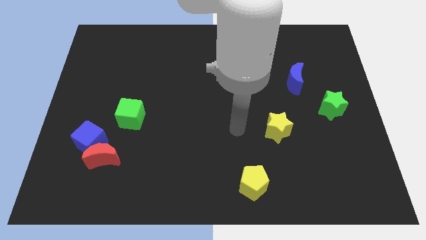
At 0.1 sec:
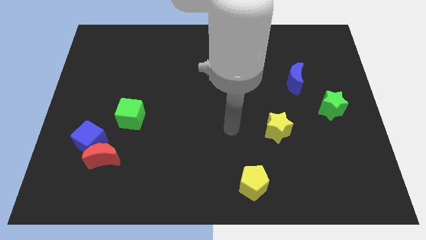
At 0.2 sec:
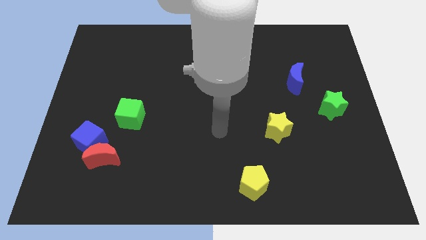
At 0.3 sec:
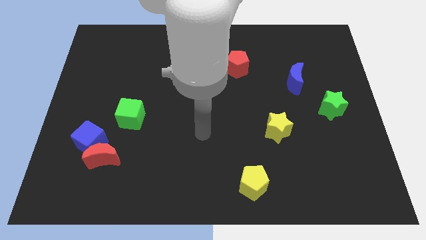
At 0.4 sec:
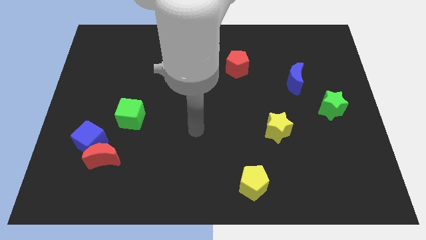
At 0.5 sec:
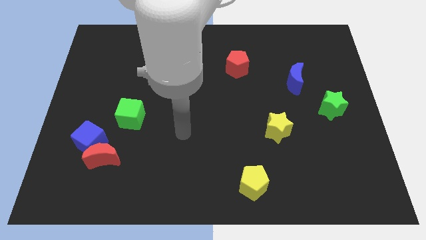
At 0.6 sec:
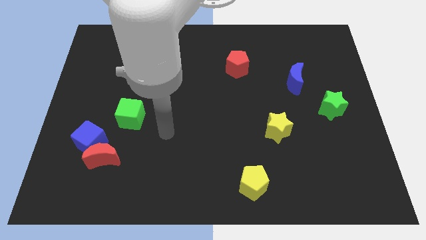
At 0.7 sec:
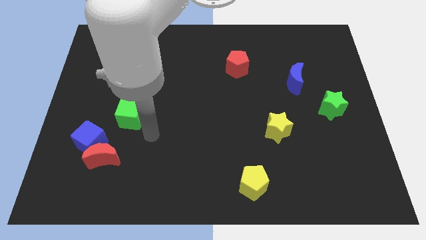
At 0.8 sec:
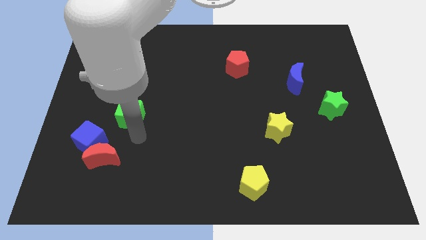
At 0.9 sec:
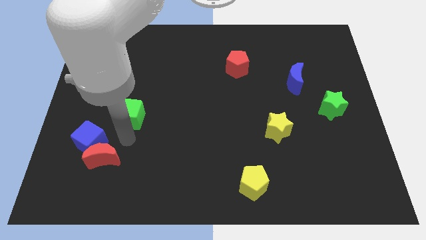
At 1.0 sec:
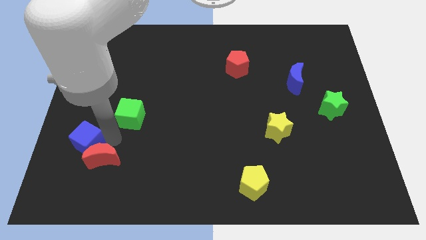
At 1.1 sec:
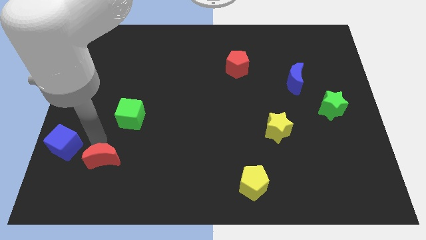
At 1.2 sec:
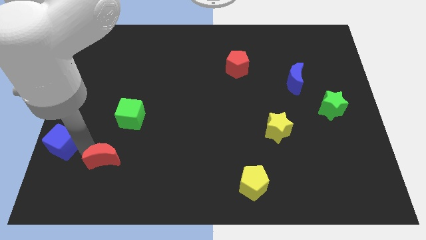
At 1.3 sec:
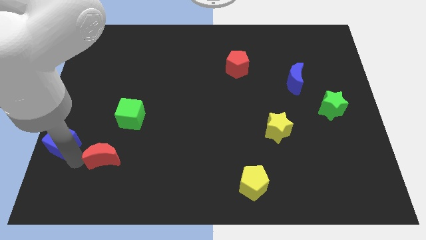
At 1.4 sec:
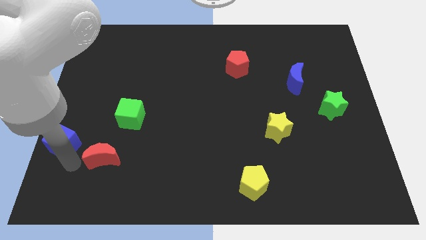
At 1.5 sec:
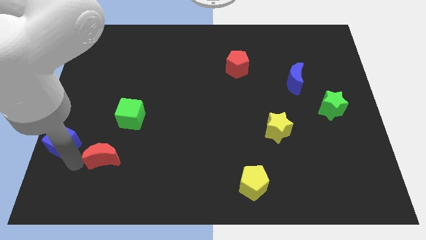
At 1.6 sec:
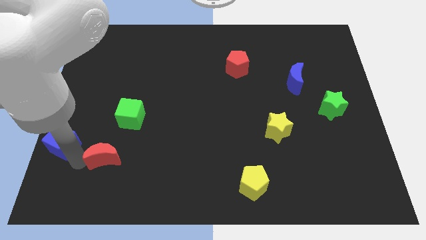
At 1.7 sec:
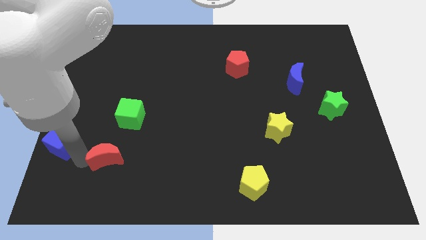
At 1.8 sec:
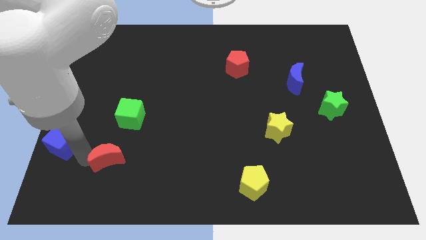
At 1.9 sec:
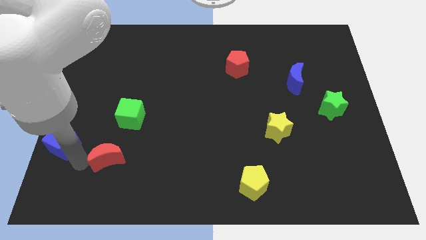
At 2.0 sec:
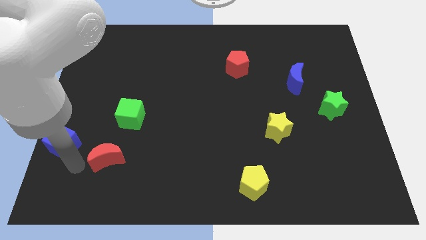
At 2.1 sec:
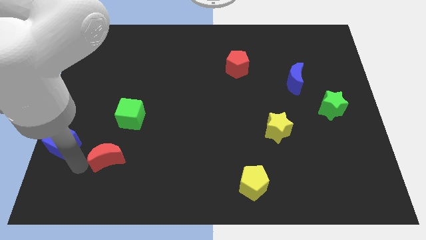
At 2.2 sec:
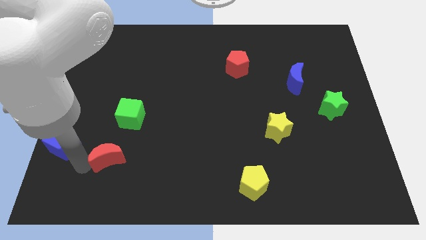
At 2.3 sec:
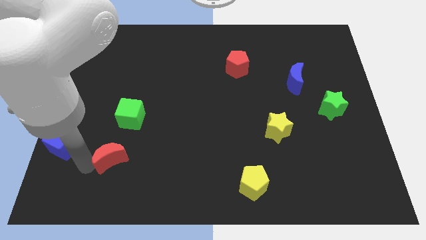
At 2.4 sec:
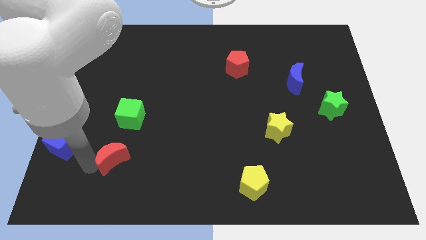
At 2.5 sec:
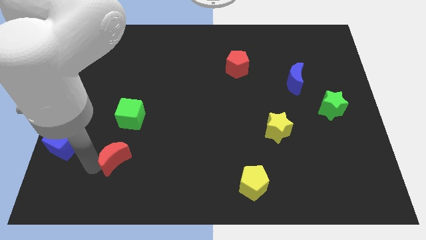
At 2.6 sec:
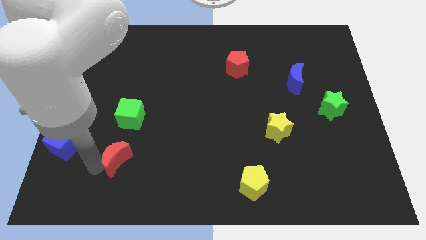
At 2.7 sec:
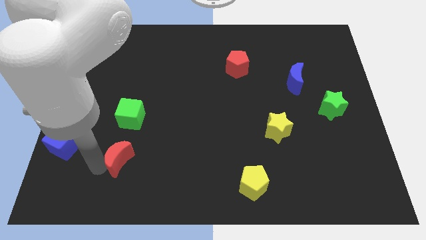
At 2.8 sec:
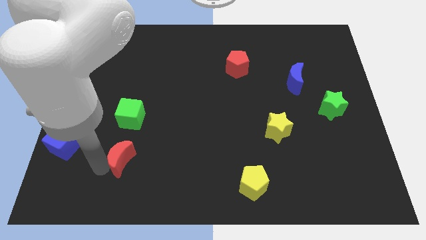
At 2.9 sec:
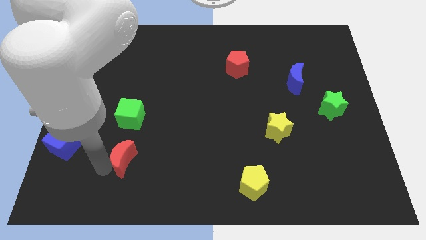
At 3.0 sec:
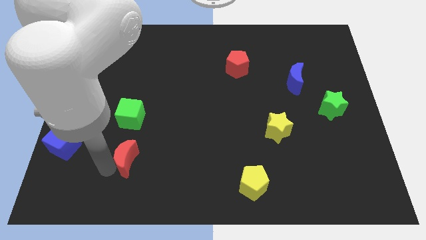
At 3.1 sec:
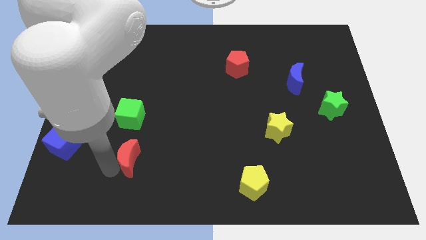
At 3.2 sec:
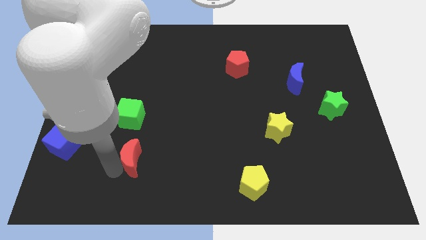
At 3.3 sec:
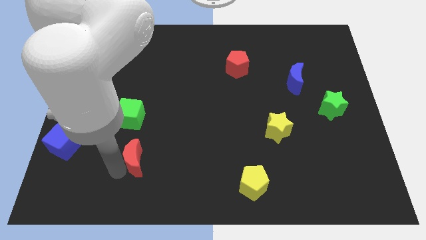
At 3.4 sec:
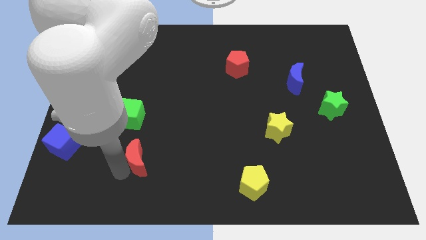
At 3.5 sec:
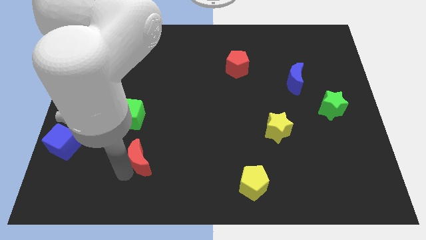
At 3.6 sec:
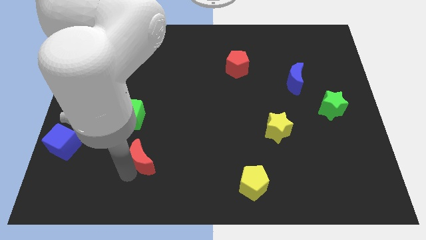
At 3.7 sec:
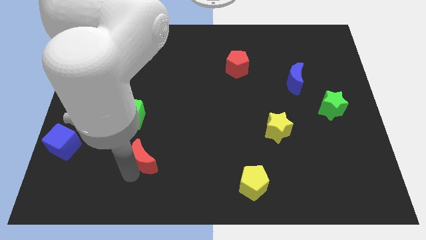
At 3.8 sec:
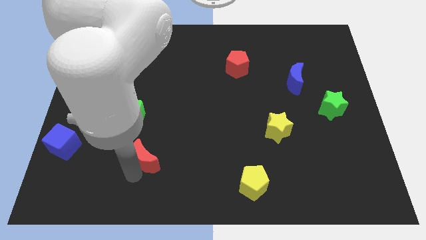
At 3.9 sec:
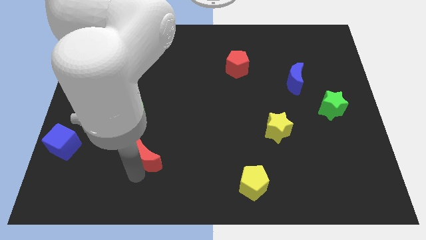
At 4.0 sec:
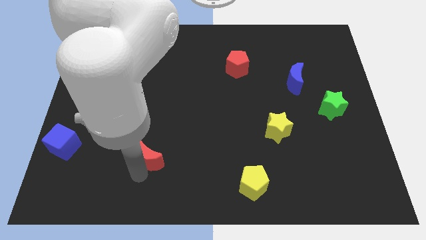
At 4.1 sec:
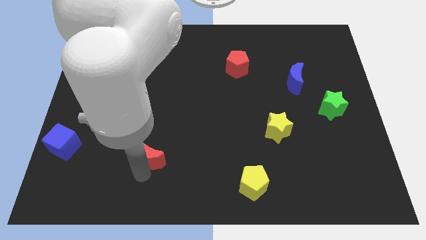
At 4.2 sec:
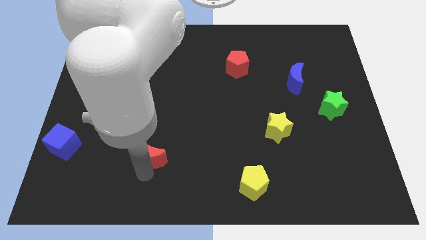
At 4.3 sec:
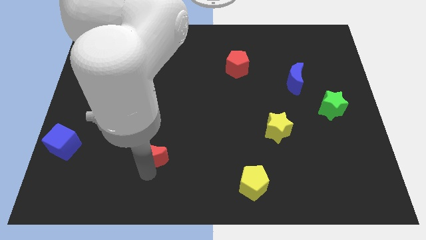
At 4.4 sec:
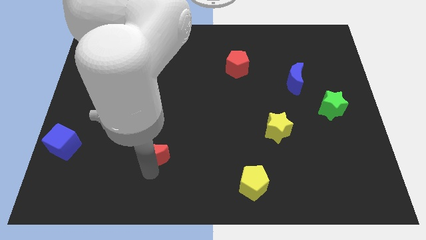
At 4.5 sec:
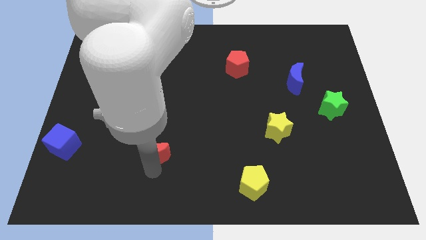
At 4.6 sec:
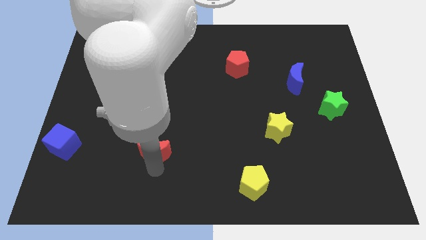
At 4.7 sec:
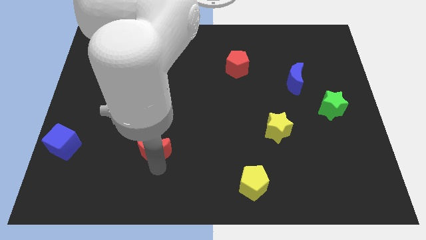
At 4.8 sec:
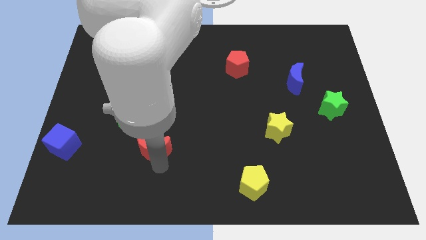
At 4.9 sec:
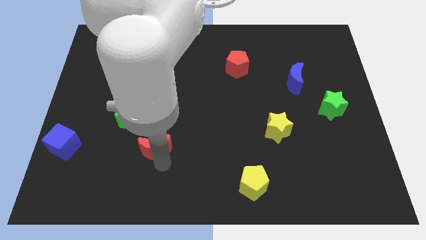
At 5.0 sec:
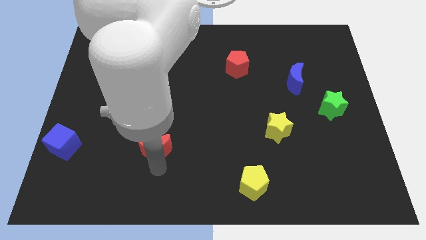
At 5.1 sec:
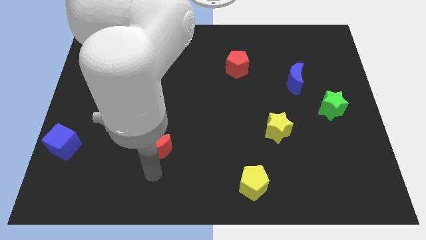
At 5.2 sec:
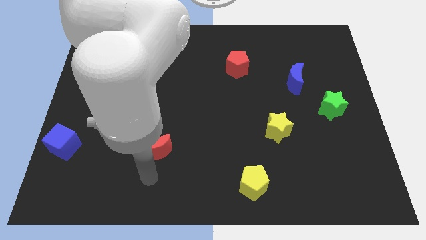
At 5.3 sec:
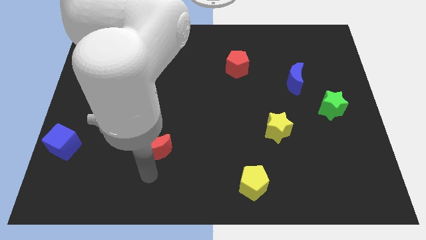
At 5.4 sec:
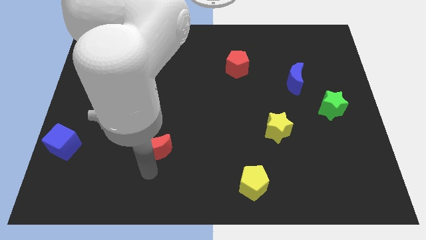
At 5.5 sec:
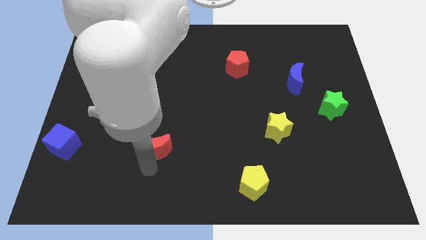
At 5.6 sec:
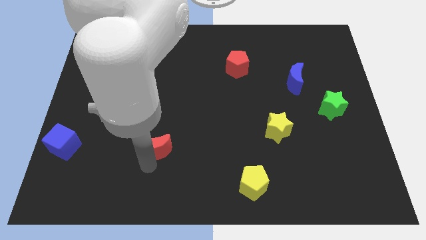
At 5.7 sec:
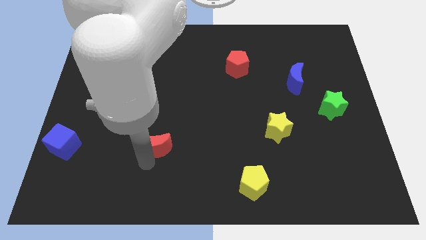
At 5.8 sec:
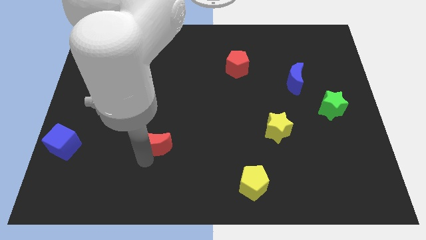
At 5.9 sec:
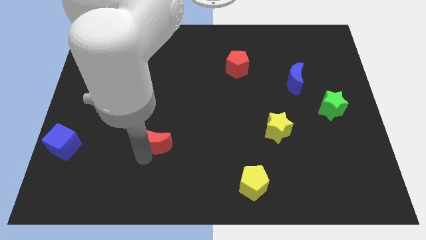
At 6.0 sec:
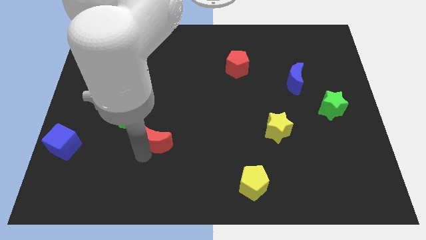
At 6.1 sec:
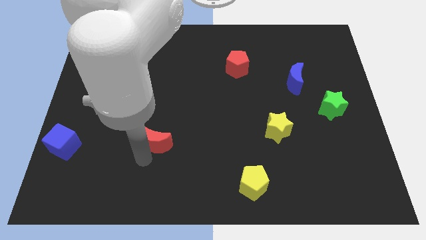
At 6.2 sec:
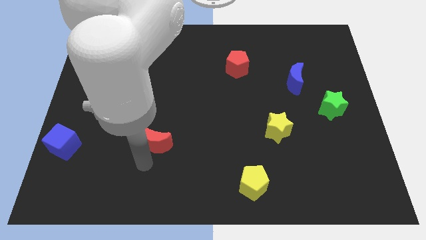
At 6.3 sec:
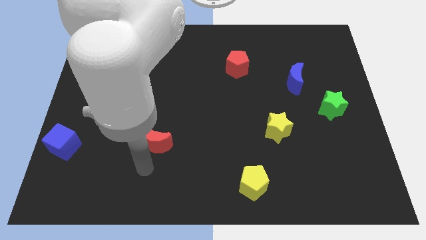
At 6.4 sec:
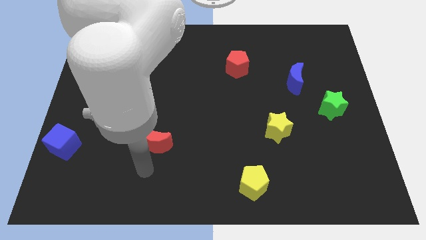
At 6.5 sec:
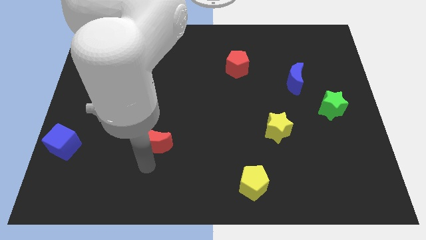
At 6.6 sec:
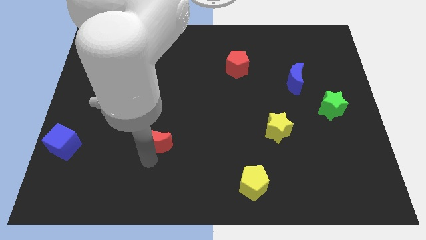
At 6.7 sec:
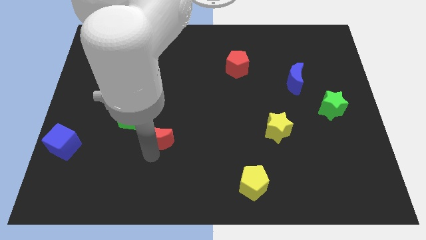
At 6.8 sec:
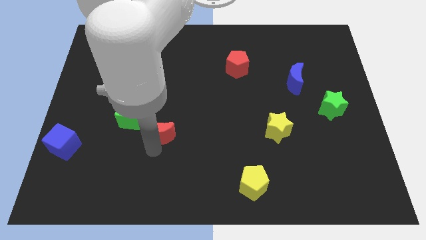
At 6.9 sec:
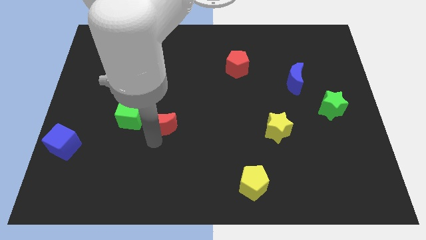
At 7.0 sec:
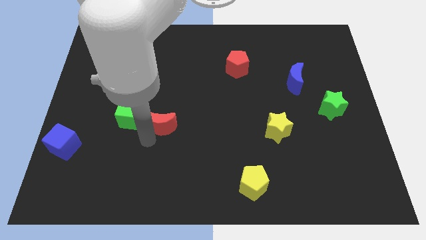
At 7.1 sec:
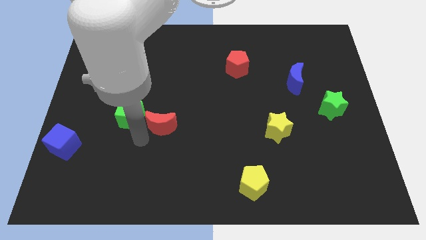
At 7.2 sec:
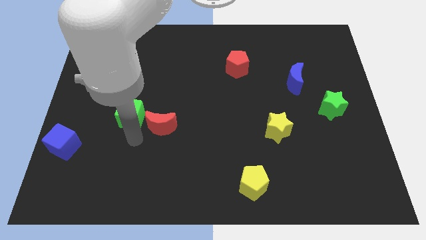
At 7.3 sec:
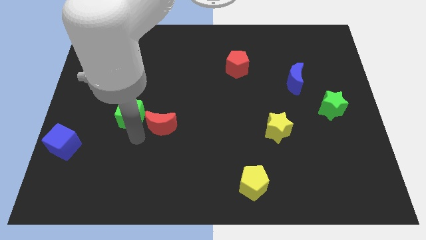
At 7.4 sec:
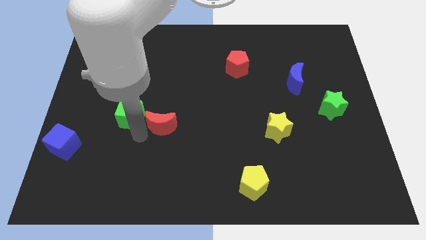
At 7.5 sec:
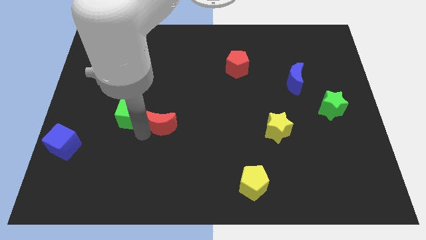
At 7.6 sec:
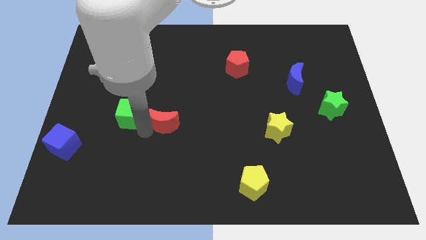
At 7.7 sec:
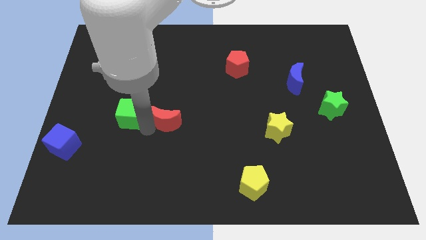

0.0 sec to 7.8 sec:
move the red moon to the center
